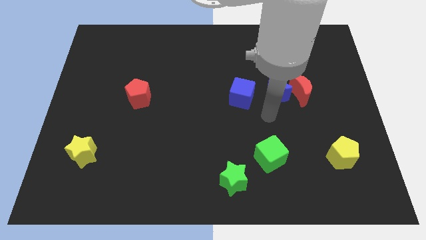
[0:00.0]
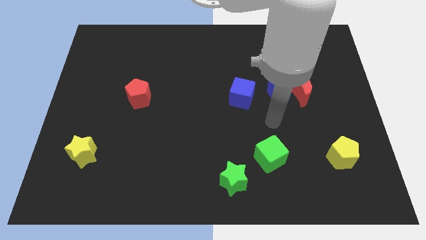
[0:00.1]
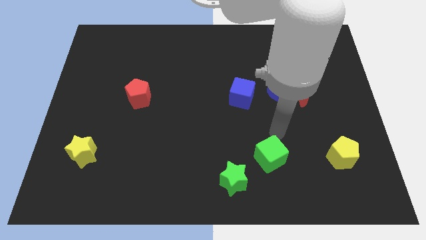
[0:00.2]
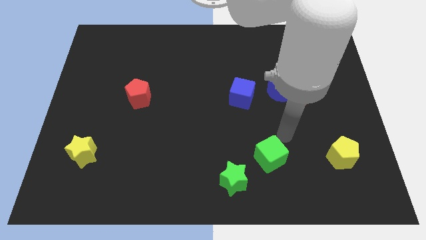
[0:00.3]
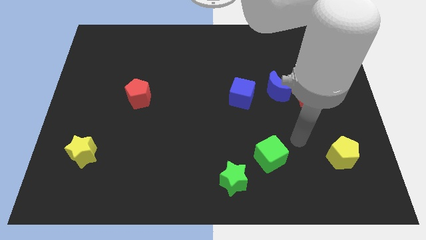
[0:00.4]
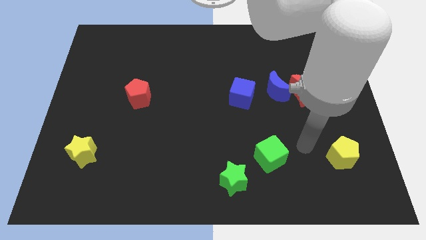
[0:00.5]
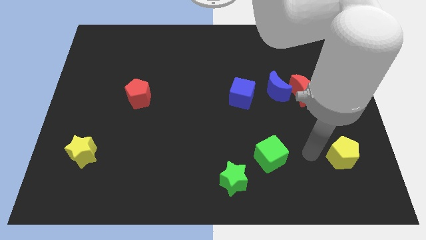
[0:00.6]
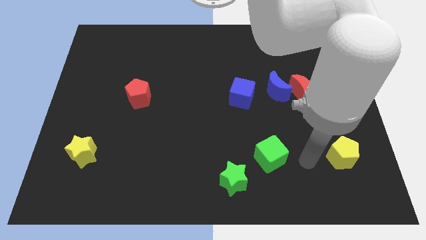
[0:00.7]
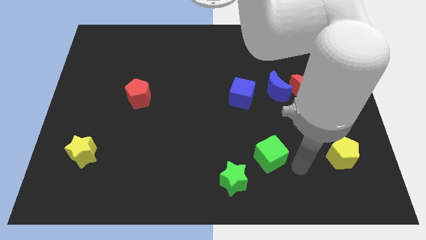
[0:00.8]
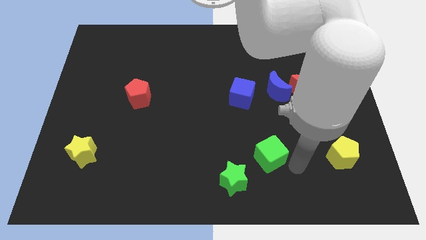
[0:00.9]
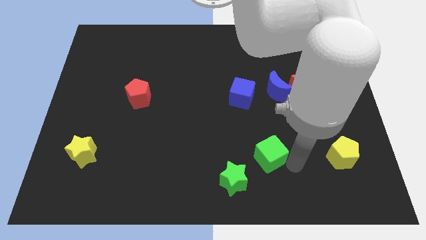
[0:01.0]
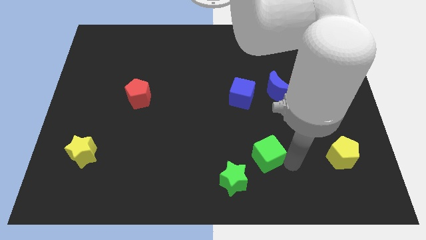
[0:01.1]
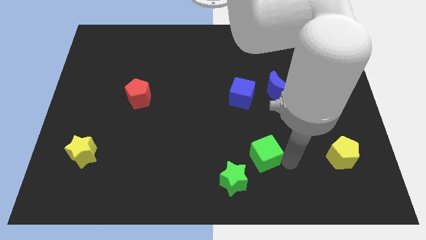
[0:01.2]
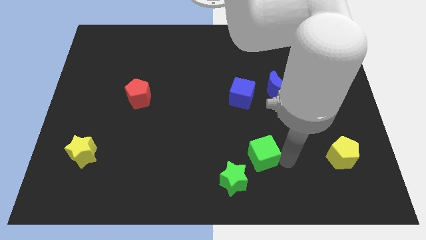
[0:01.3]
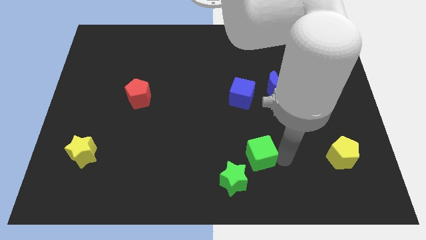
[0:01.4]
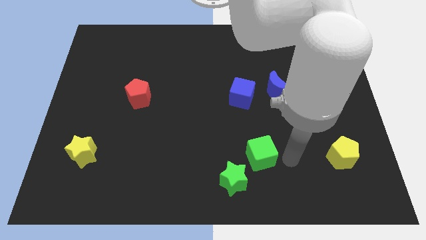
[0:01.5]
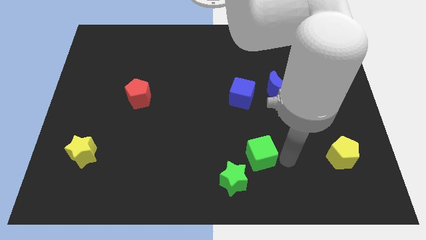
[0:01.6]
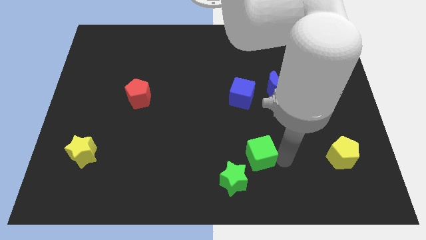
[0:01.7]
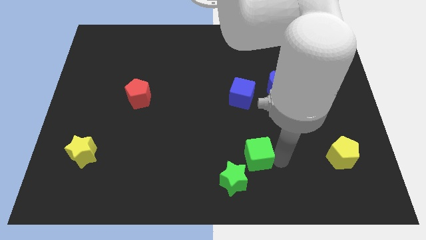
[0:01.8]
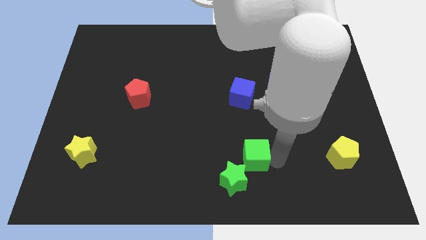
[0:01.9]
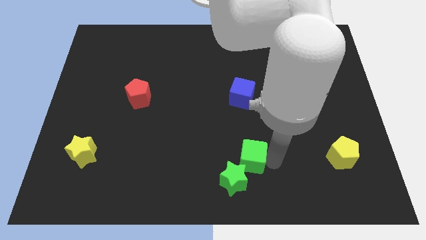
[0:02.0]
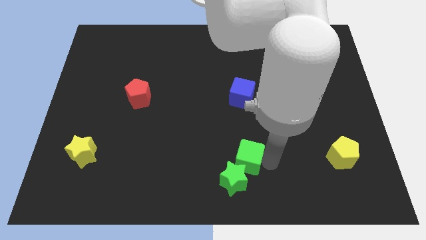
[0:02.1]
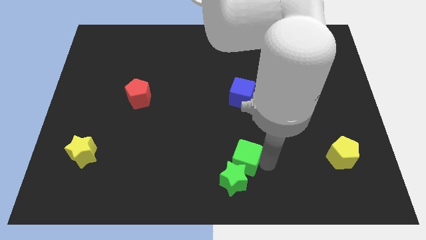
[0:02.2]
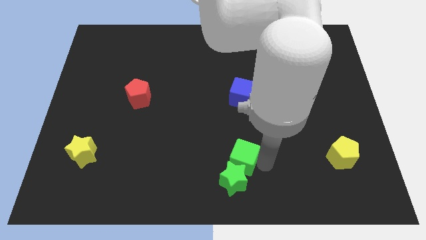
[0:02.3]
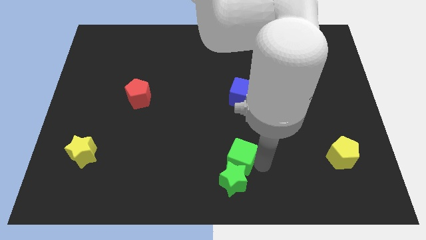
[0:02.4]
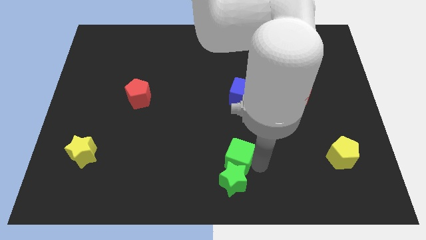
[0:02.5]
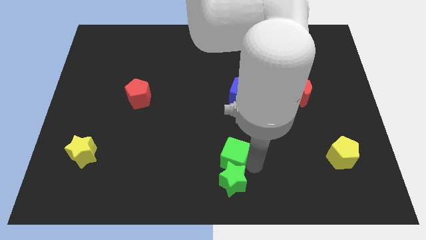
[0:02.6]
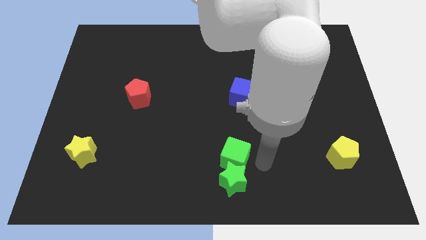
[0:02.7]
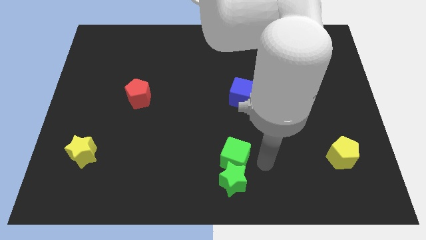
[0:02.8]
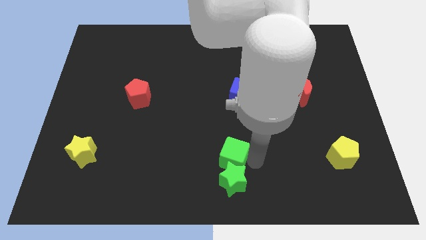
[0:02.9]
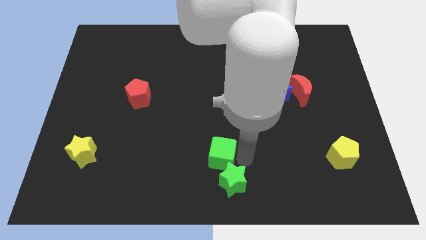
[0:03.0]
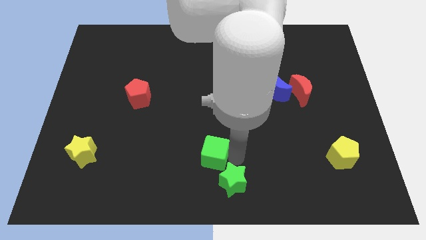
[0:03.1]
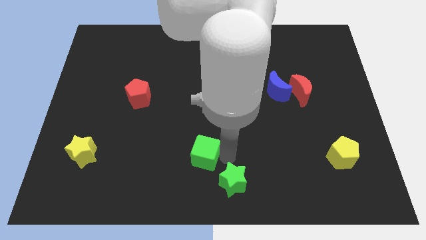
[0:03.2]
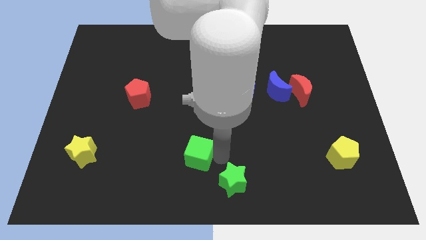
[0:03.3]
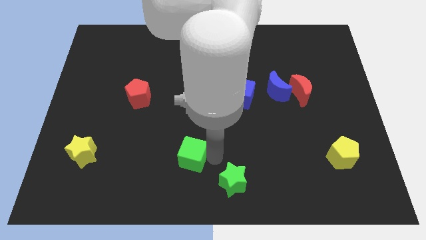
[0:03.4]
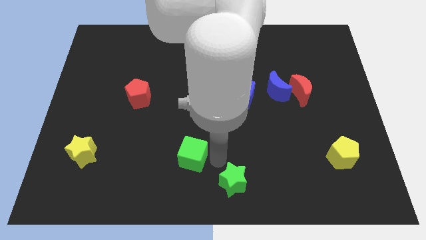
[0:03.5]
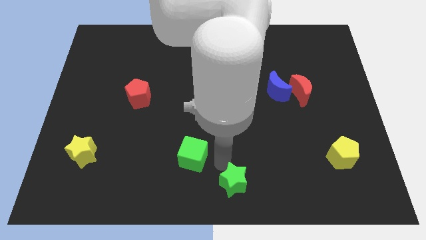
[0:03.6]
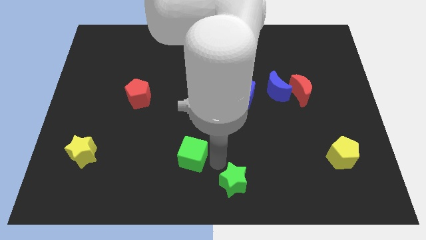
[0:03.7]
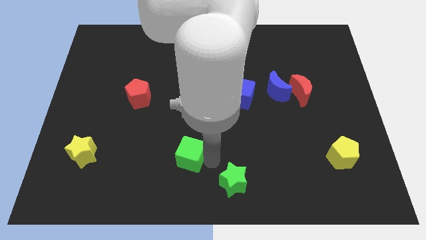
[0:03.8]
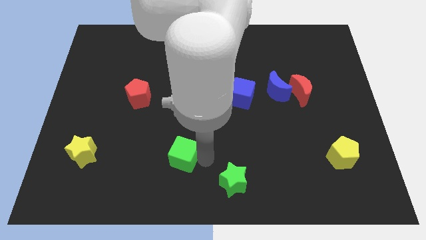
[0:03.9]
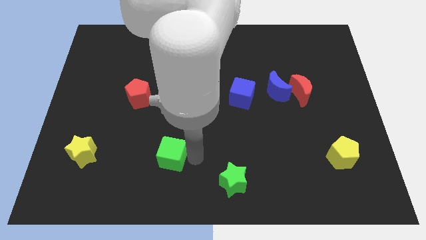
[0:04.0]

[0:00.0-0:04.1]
slide the green cube left

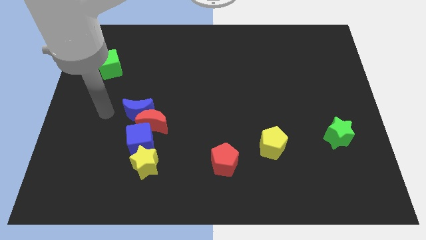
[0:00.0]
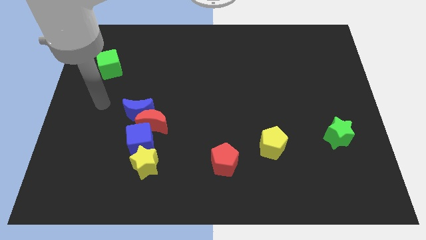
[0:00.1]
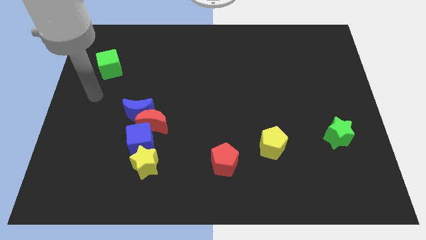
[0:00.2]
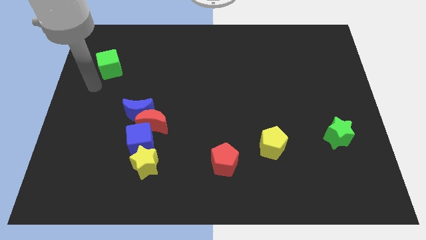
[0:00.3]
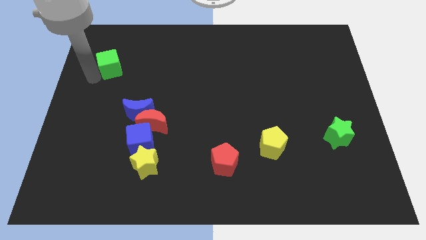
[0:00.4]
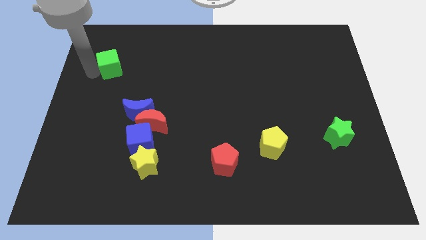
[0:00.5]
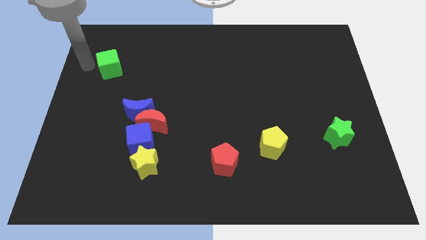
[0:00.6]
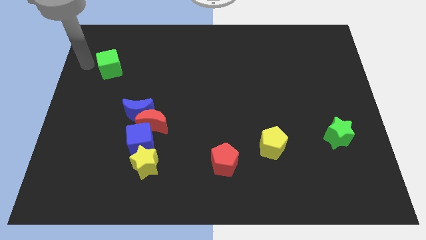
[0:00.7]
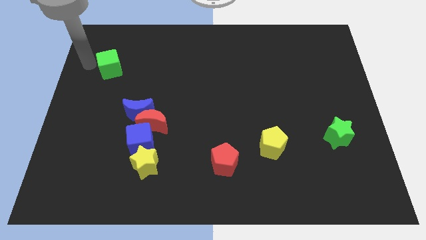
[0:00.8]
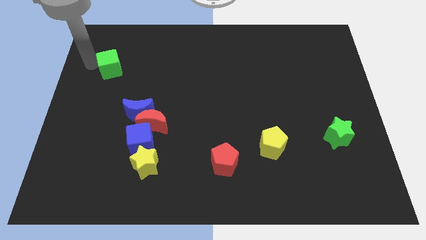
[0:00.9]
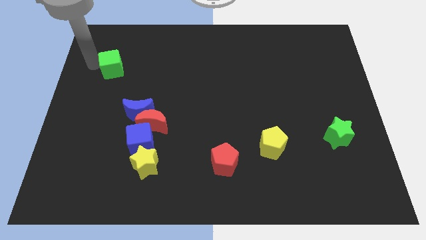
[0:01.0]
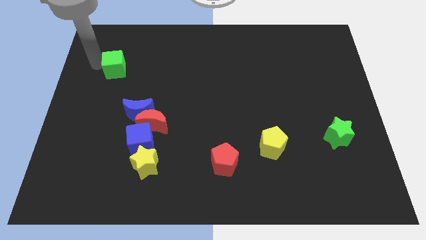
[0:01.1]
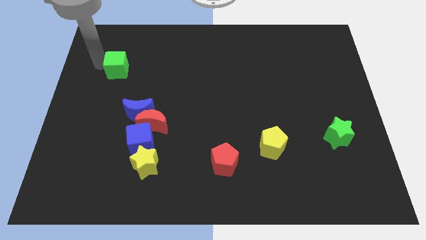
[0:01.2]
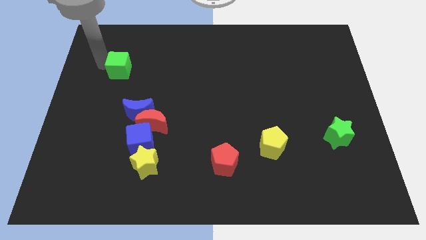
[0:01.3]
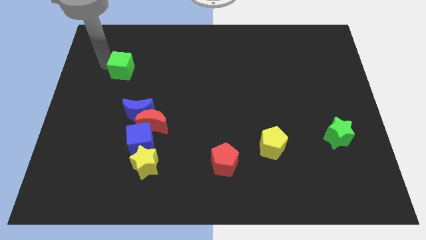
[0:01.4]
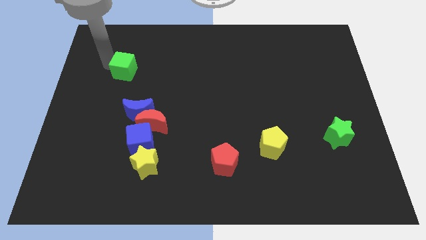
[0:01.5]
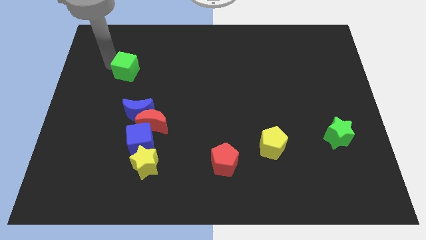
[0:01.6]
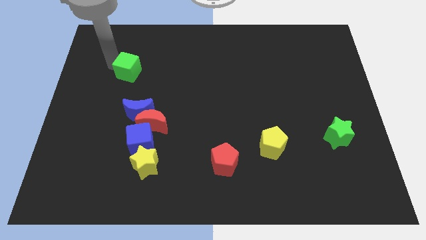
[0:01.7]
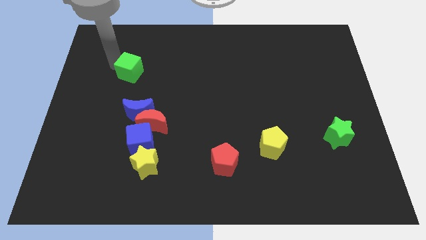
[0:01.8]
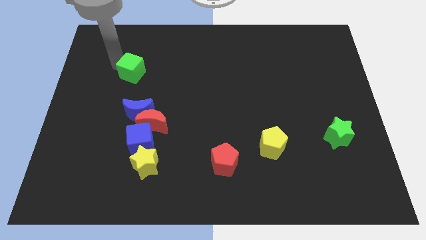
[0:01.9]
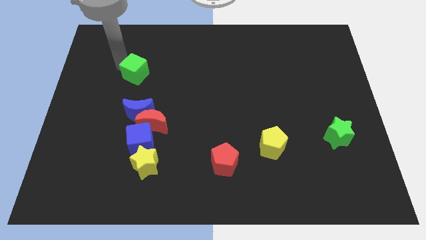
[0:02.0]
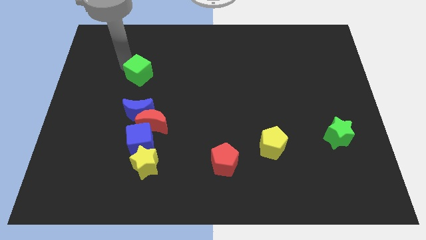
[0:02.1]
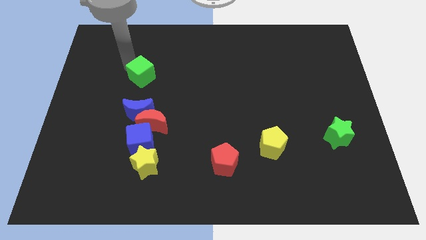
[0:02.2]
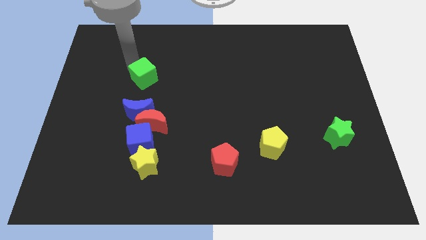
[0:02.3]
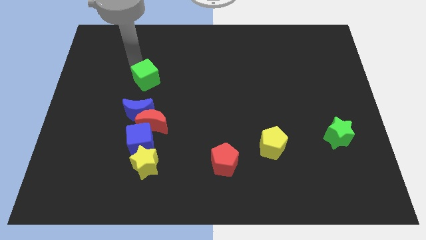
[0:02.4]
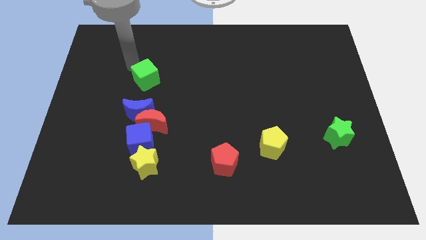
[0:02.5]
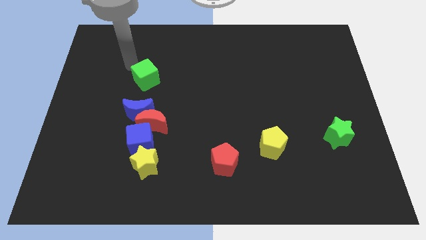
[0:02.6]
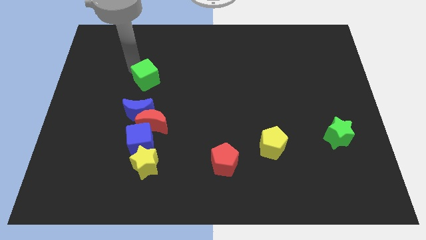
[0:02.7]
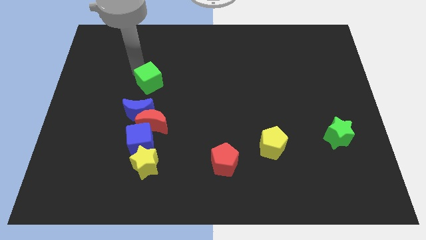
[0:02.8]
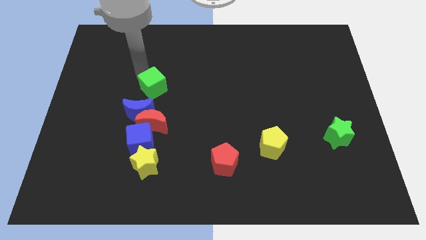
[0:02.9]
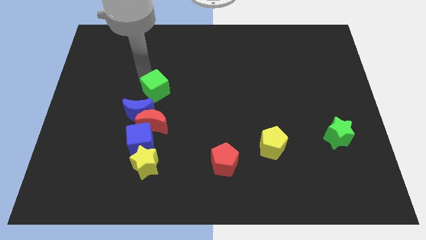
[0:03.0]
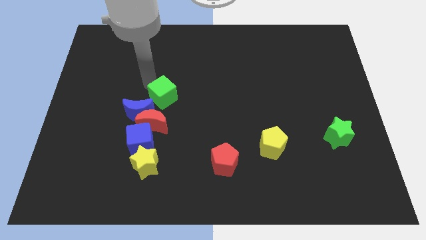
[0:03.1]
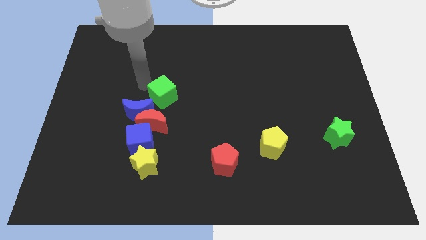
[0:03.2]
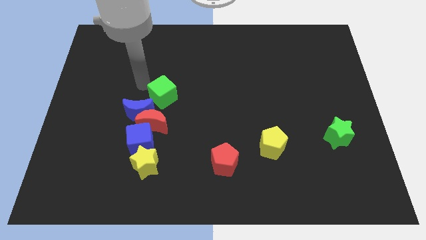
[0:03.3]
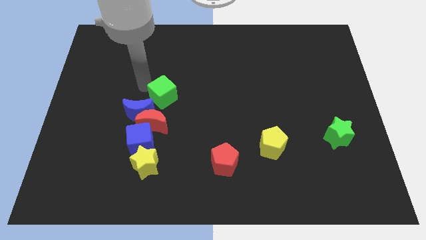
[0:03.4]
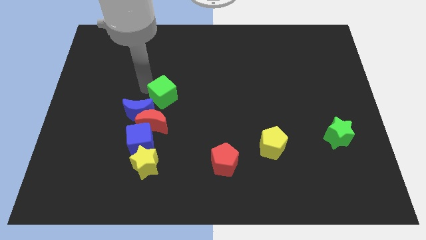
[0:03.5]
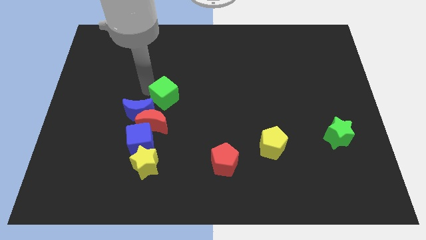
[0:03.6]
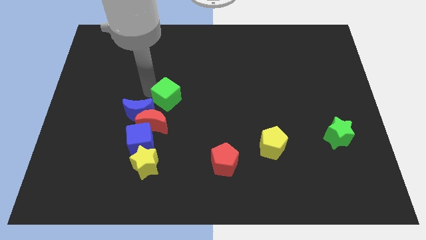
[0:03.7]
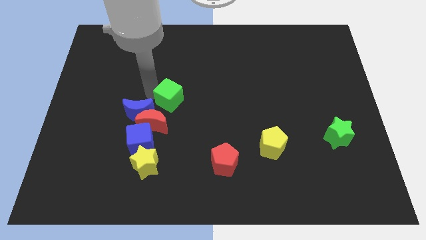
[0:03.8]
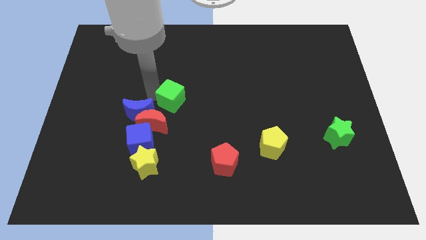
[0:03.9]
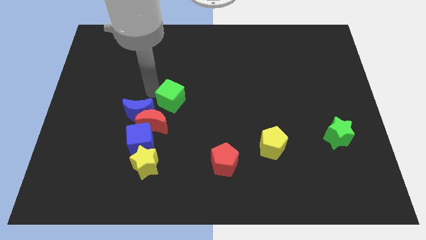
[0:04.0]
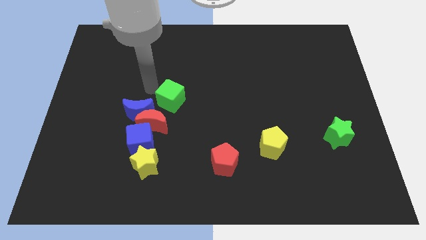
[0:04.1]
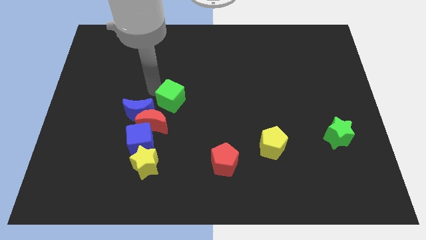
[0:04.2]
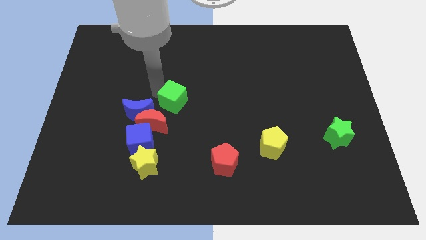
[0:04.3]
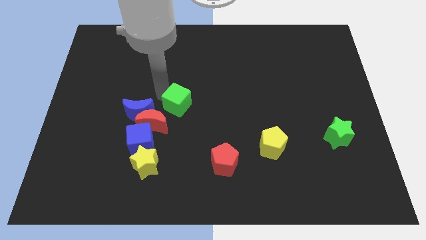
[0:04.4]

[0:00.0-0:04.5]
push the green cube down and to the right
